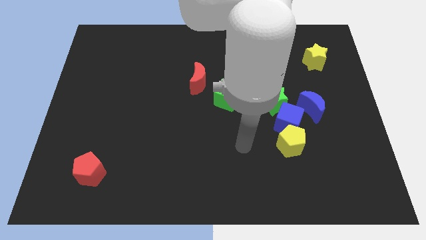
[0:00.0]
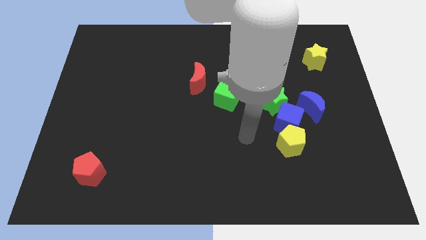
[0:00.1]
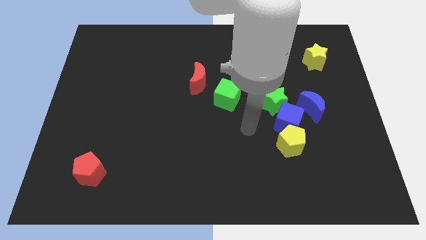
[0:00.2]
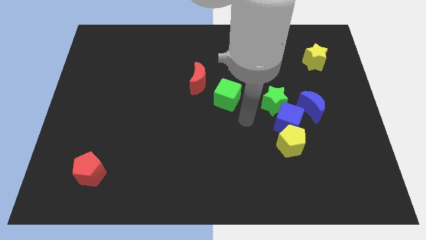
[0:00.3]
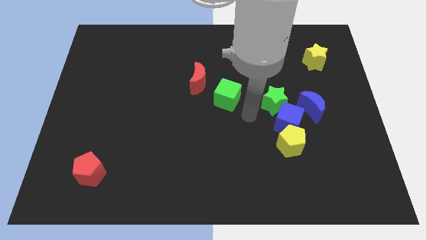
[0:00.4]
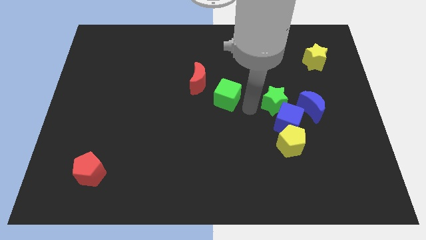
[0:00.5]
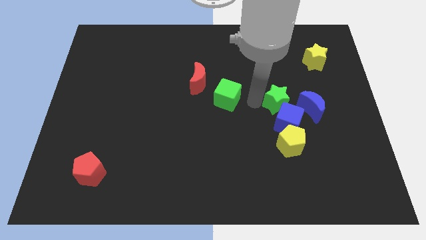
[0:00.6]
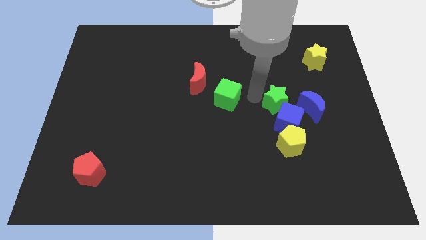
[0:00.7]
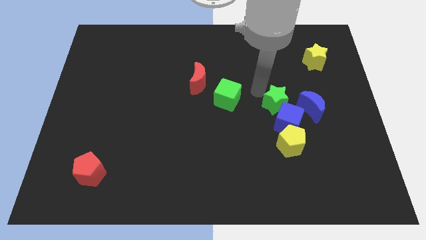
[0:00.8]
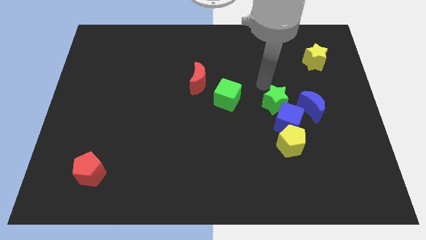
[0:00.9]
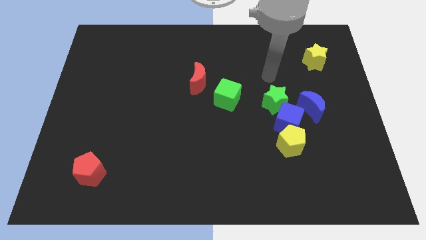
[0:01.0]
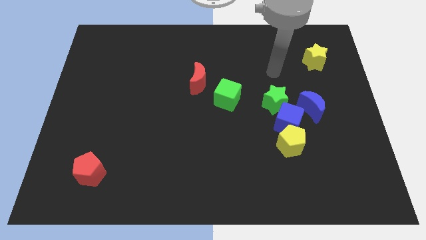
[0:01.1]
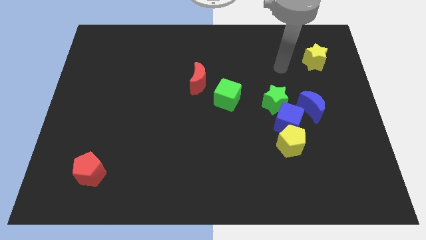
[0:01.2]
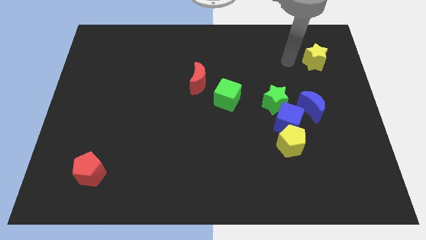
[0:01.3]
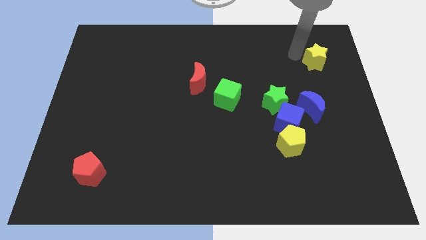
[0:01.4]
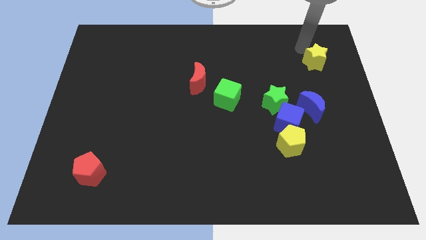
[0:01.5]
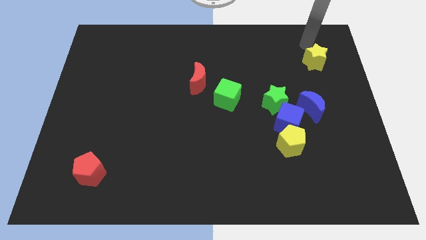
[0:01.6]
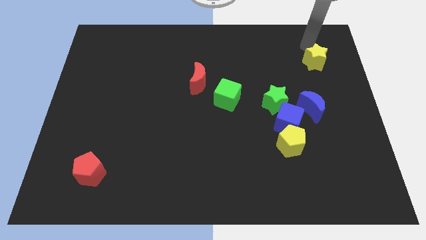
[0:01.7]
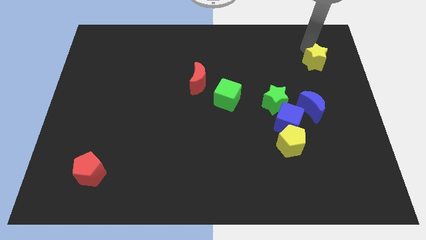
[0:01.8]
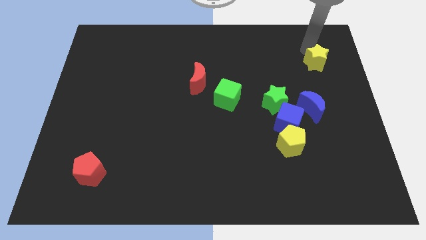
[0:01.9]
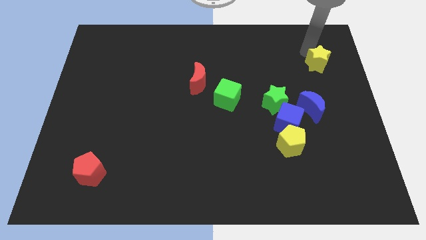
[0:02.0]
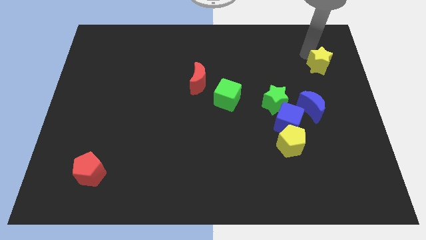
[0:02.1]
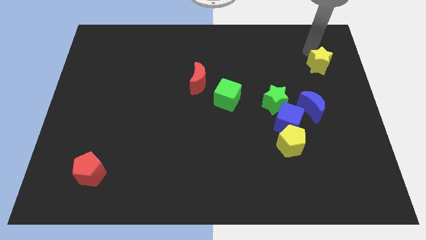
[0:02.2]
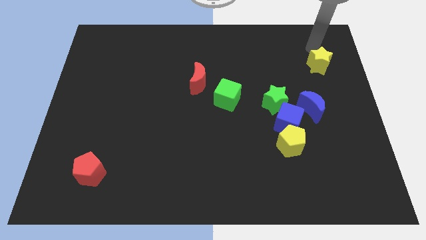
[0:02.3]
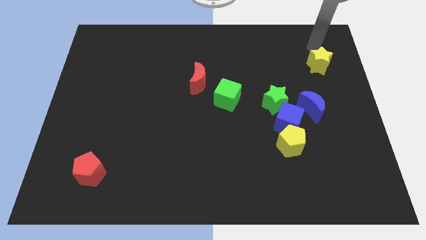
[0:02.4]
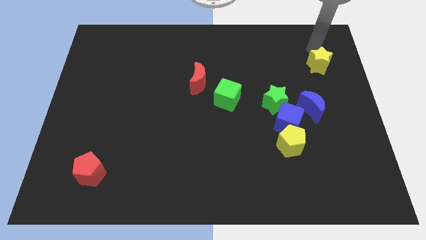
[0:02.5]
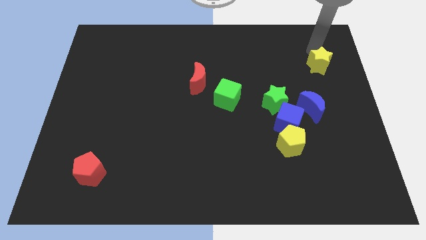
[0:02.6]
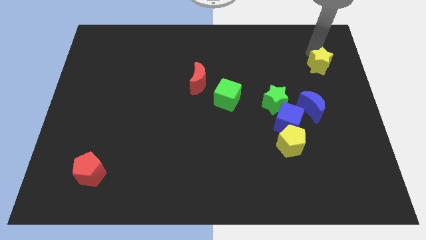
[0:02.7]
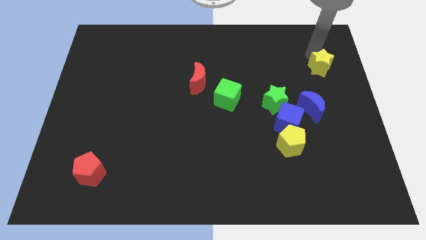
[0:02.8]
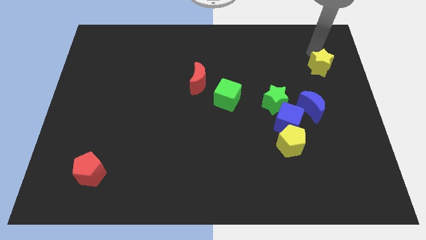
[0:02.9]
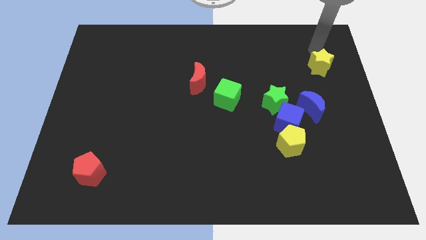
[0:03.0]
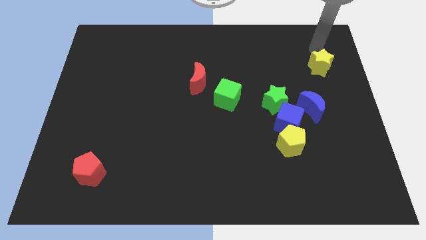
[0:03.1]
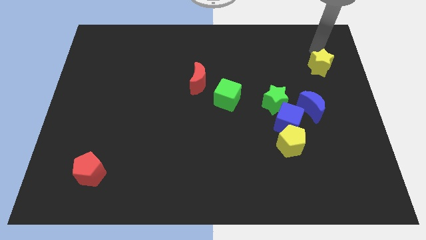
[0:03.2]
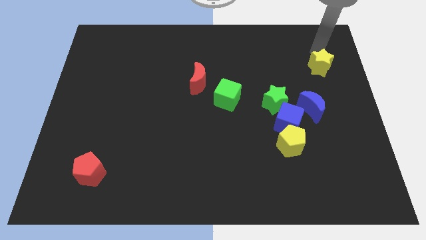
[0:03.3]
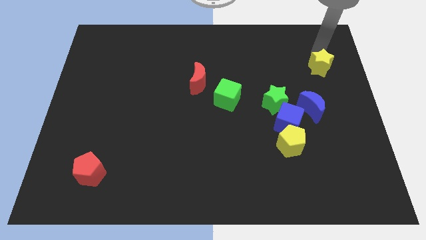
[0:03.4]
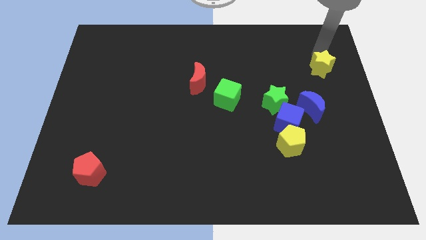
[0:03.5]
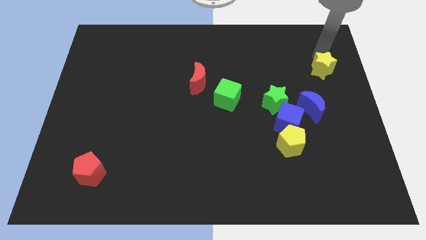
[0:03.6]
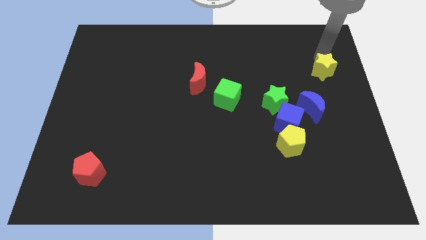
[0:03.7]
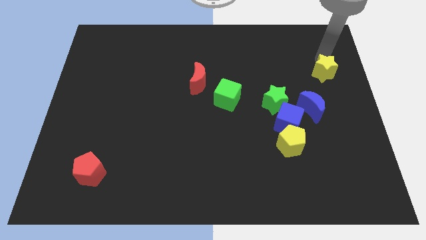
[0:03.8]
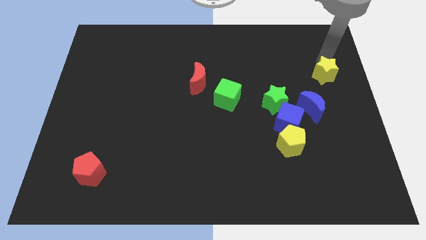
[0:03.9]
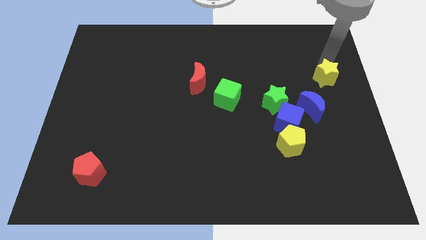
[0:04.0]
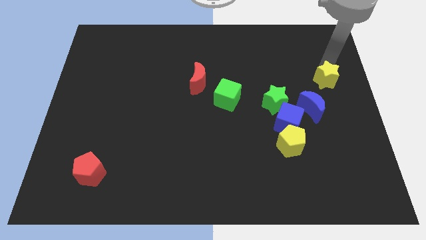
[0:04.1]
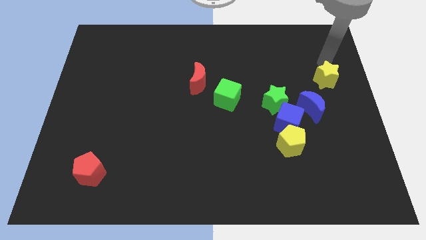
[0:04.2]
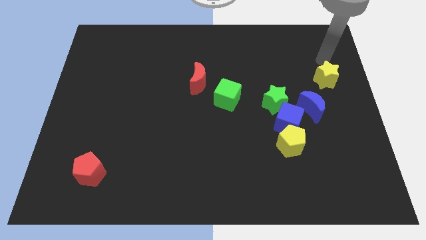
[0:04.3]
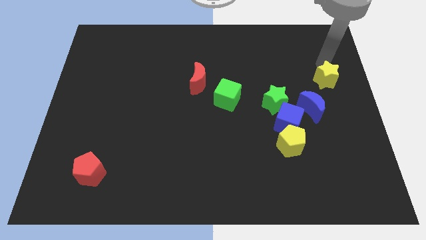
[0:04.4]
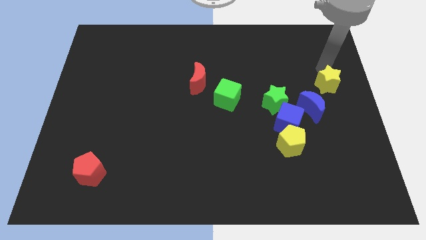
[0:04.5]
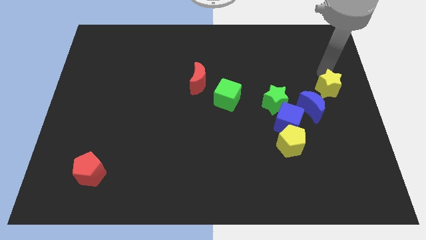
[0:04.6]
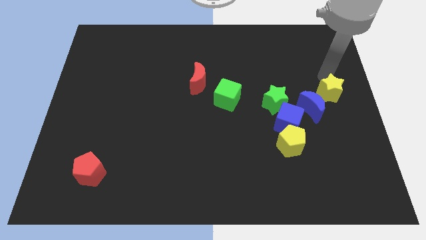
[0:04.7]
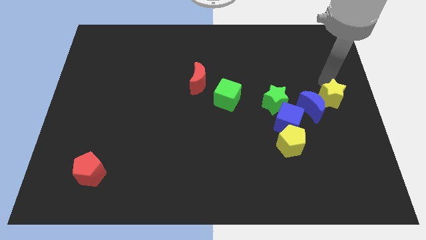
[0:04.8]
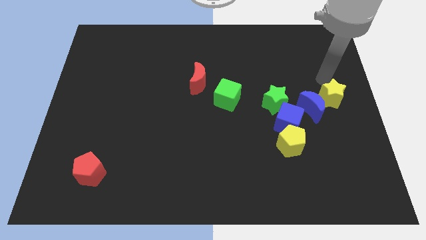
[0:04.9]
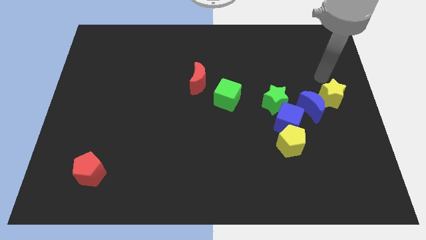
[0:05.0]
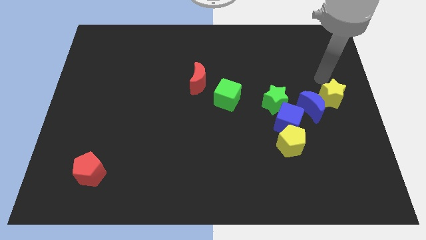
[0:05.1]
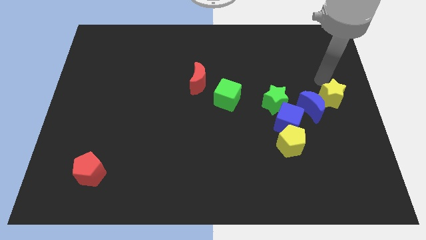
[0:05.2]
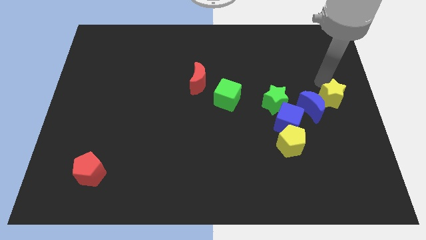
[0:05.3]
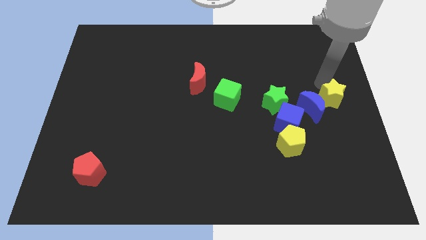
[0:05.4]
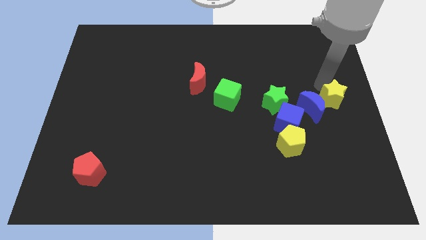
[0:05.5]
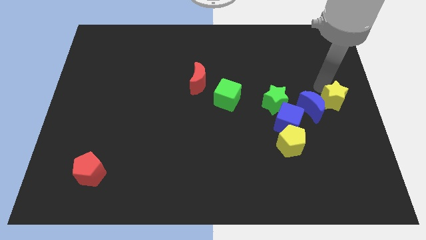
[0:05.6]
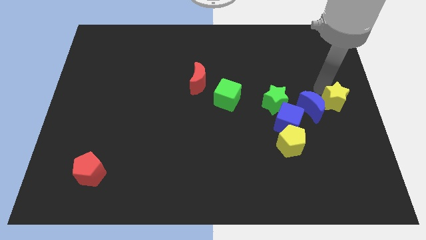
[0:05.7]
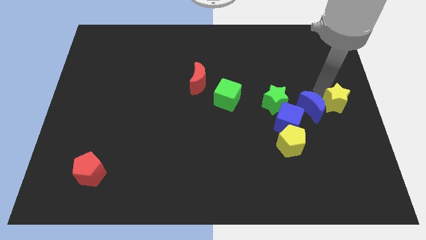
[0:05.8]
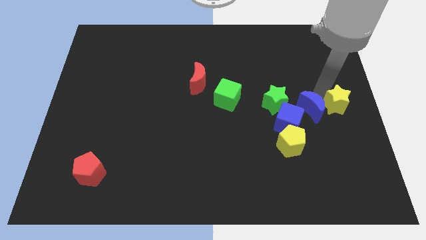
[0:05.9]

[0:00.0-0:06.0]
slide the yellow star to the bottom right of the blue moon

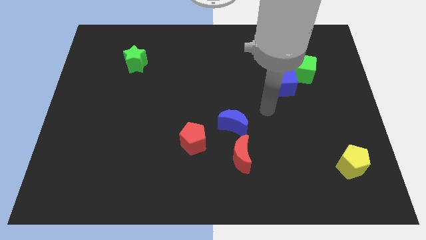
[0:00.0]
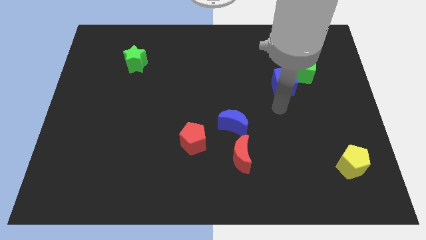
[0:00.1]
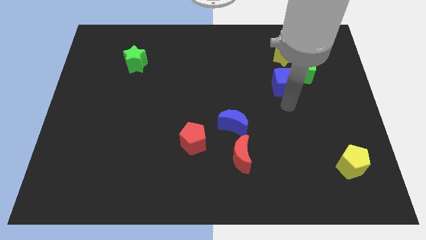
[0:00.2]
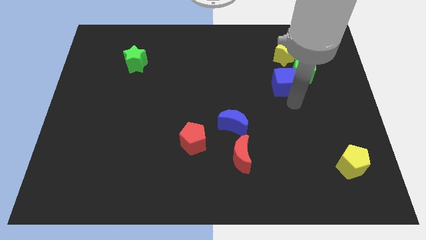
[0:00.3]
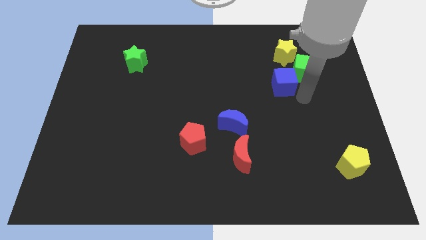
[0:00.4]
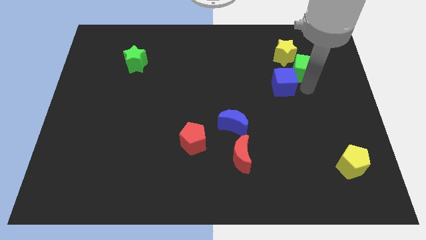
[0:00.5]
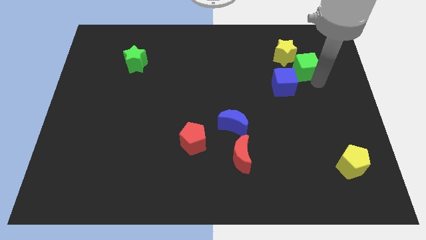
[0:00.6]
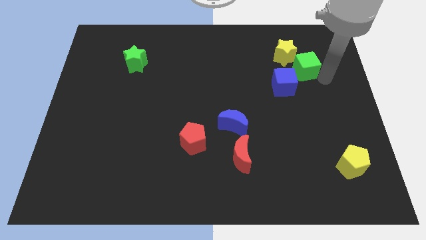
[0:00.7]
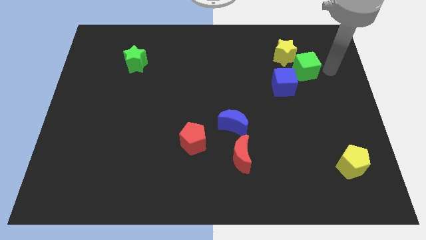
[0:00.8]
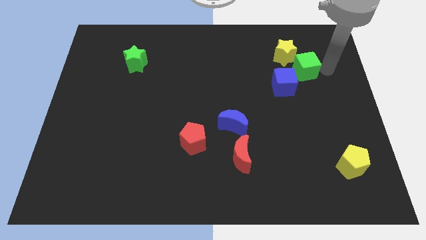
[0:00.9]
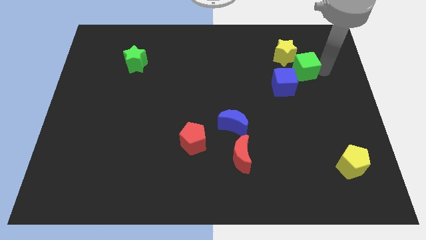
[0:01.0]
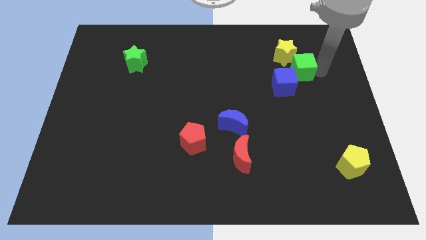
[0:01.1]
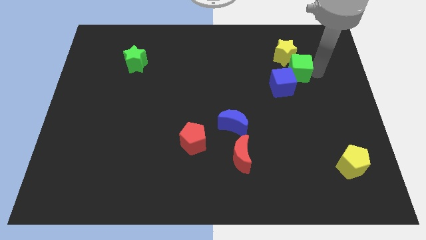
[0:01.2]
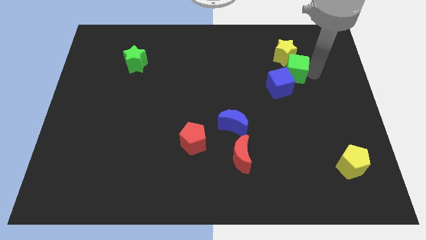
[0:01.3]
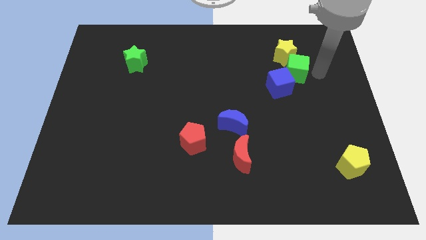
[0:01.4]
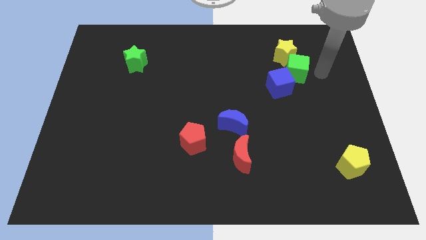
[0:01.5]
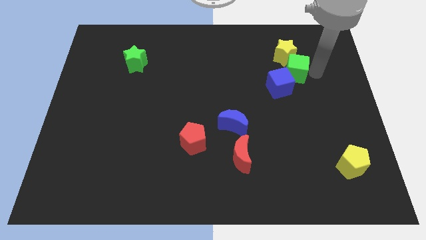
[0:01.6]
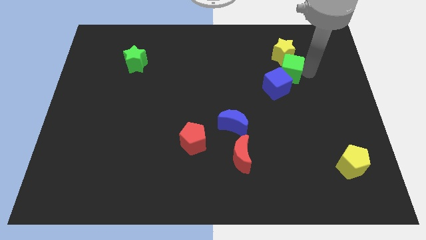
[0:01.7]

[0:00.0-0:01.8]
slide the green cube to the bottom left side of the yellow star

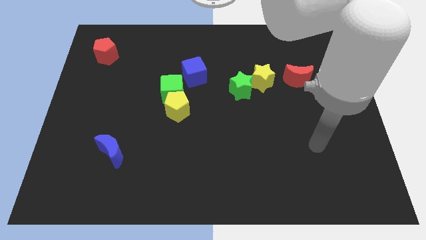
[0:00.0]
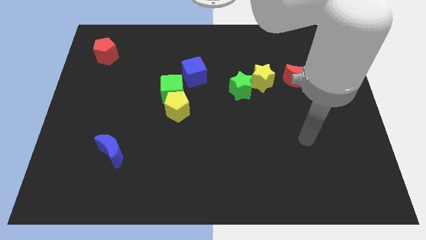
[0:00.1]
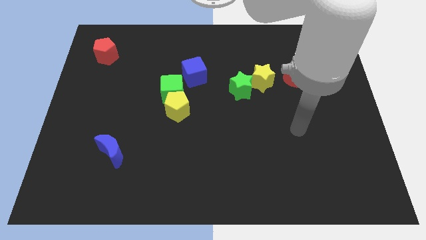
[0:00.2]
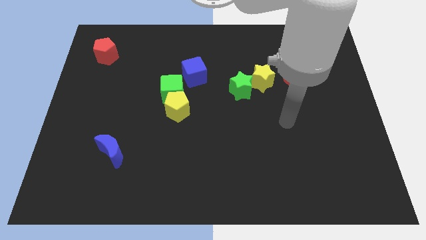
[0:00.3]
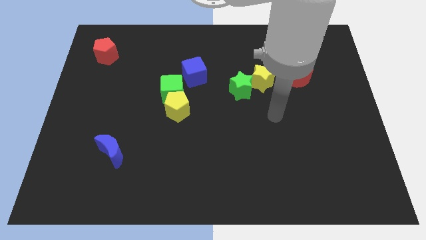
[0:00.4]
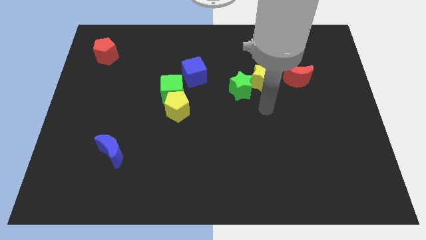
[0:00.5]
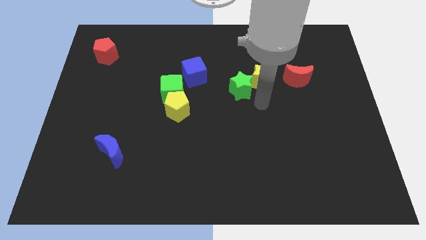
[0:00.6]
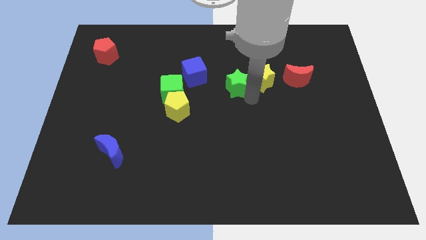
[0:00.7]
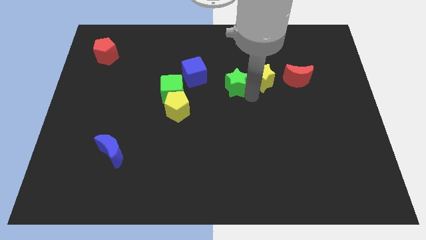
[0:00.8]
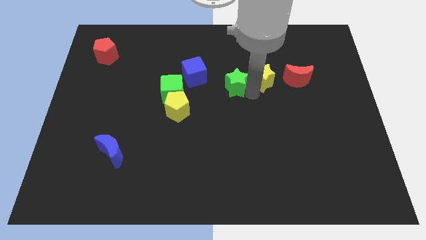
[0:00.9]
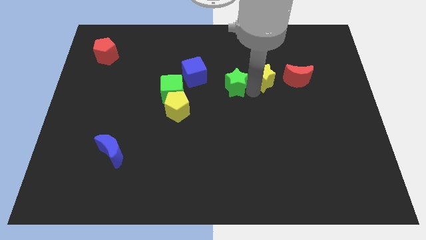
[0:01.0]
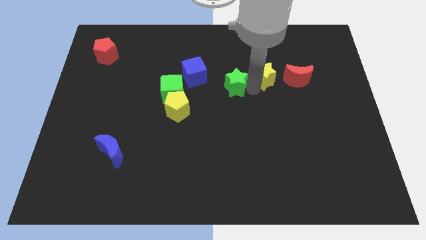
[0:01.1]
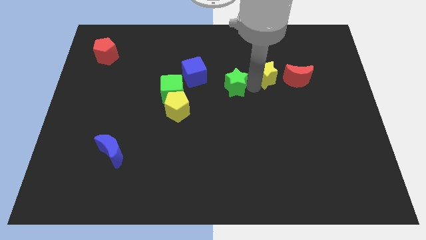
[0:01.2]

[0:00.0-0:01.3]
push the yellow star diagonally up and to the left of the red moon
